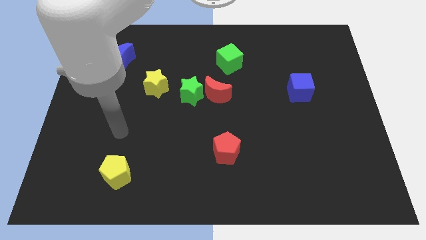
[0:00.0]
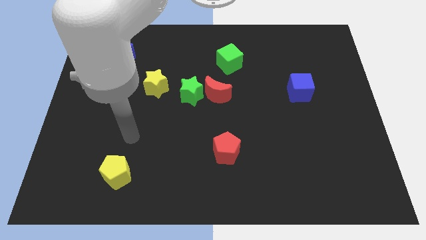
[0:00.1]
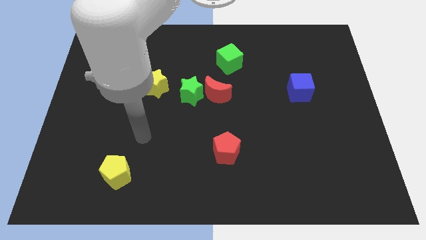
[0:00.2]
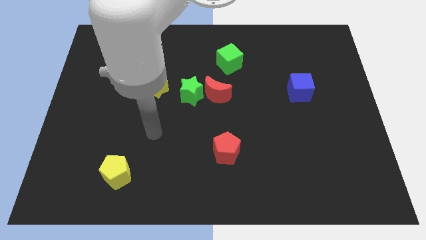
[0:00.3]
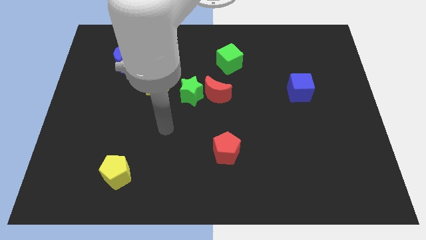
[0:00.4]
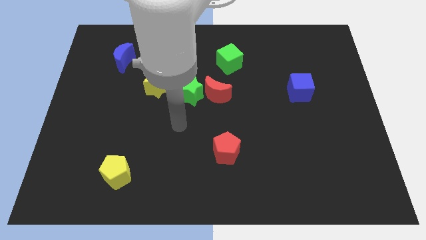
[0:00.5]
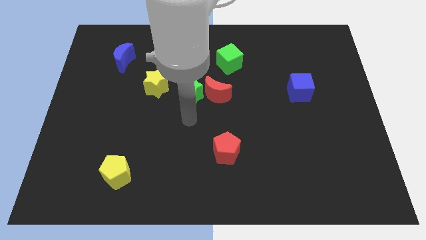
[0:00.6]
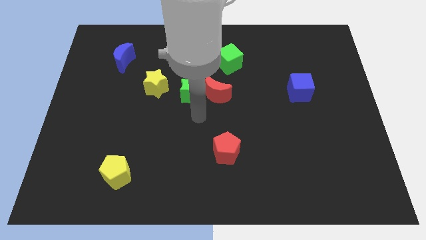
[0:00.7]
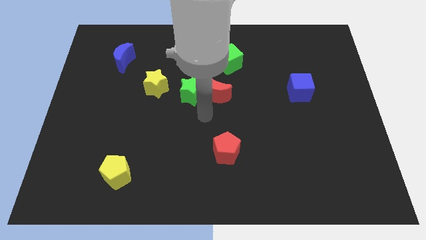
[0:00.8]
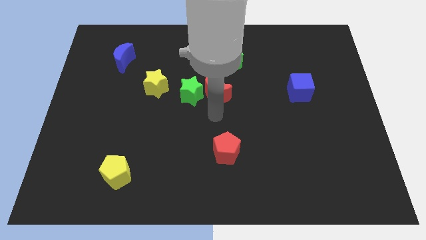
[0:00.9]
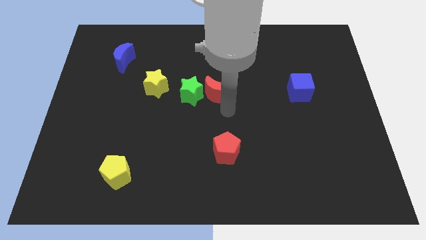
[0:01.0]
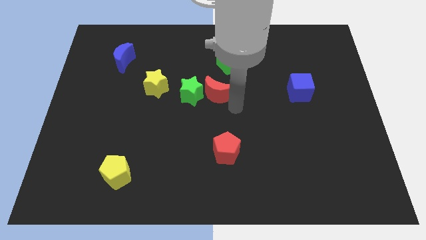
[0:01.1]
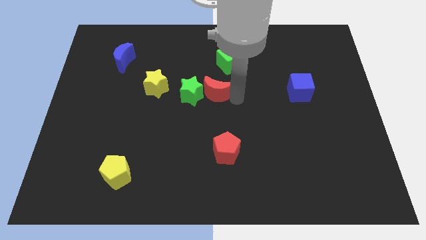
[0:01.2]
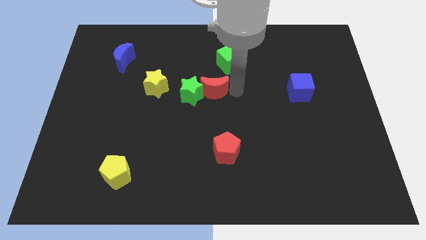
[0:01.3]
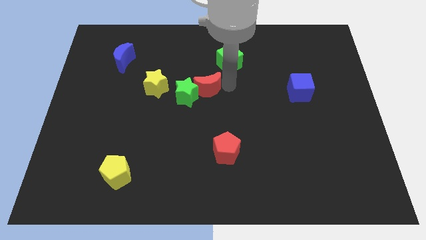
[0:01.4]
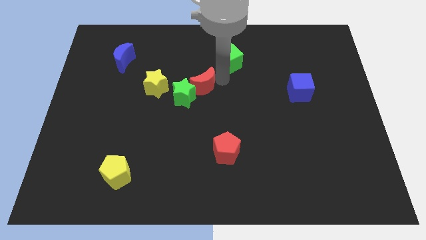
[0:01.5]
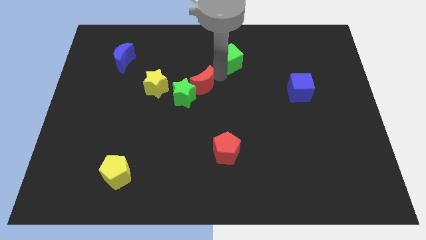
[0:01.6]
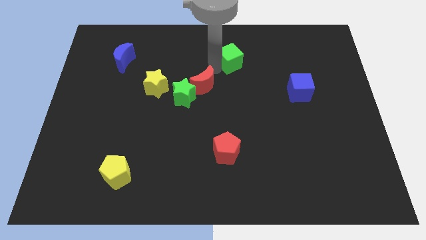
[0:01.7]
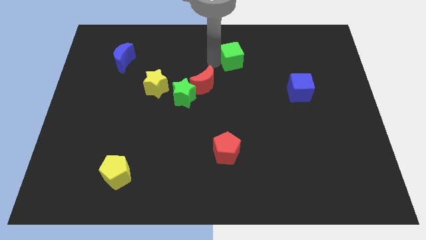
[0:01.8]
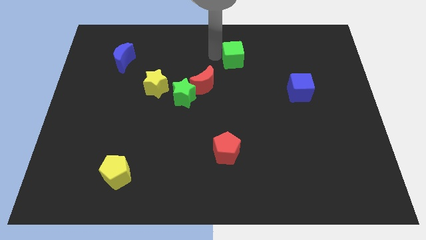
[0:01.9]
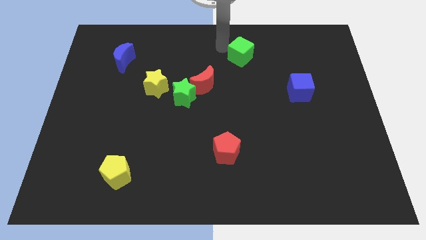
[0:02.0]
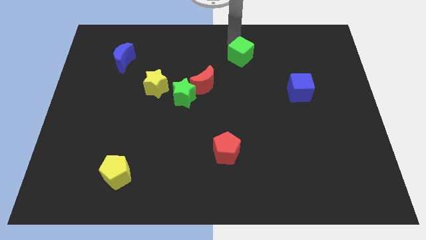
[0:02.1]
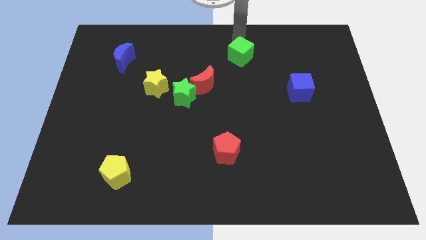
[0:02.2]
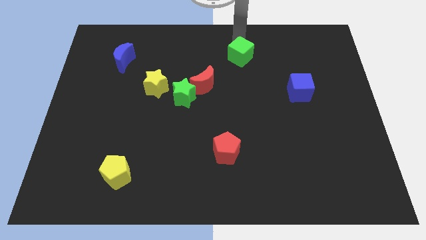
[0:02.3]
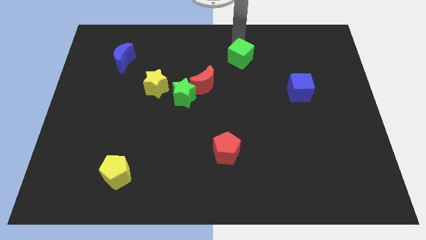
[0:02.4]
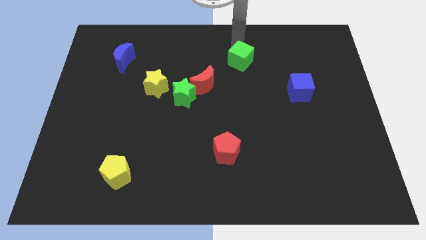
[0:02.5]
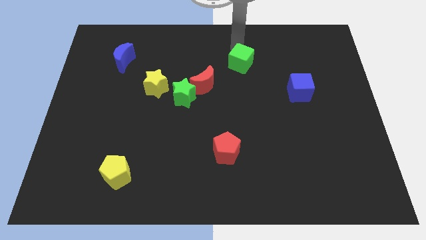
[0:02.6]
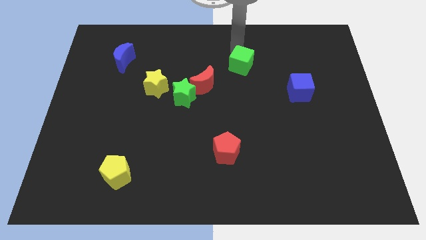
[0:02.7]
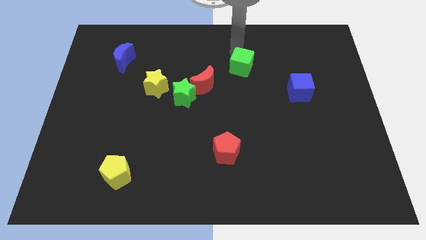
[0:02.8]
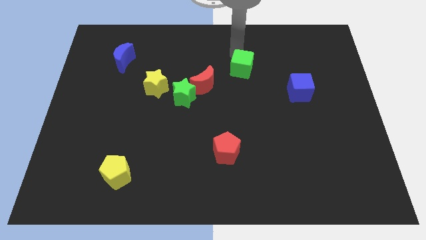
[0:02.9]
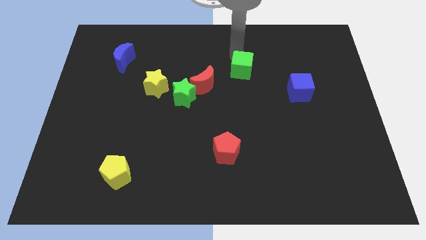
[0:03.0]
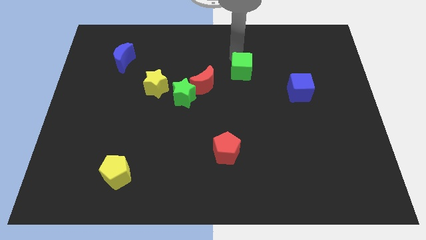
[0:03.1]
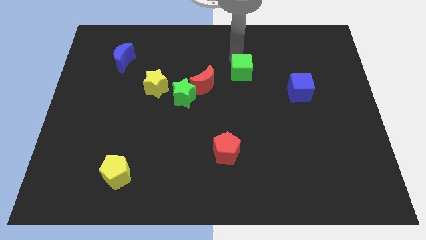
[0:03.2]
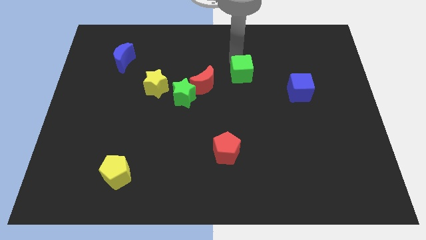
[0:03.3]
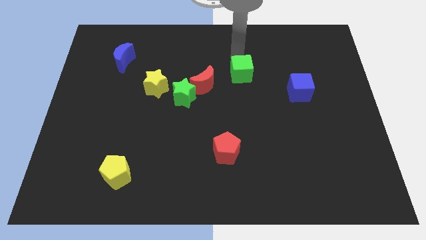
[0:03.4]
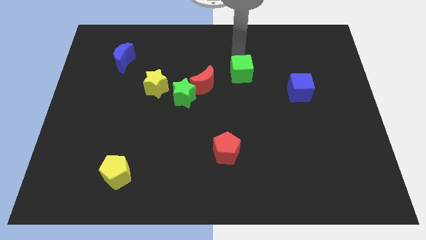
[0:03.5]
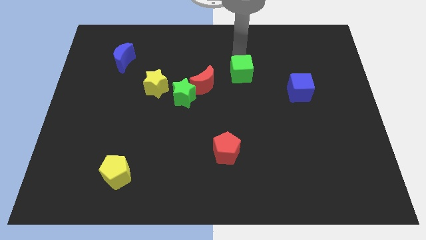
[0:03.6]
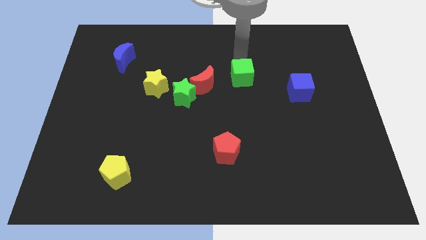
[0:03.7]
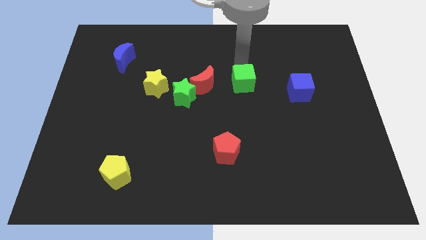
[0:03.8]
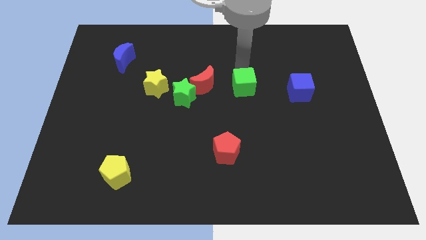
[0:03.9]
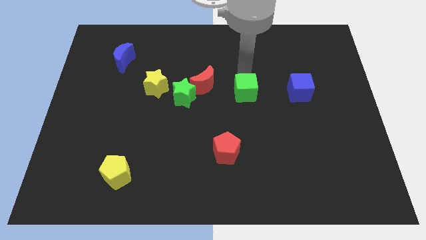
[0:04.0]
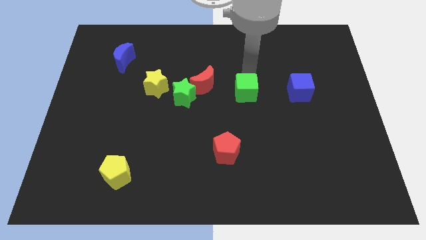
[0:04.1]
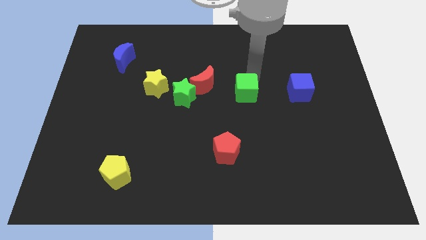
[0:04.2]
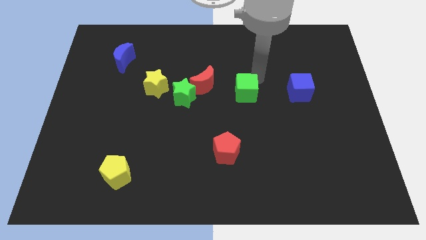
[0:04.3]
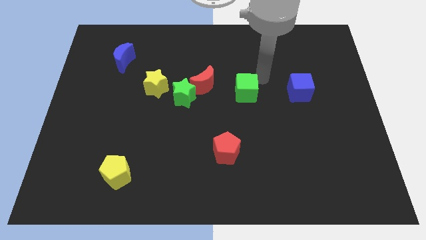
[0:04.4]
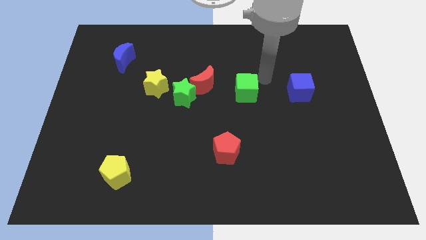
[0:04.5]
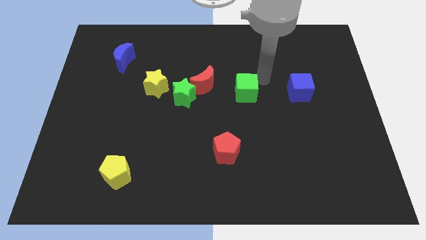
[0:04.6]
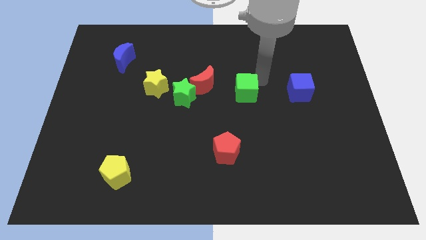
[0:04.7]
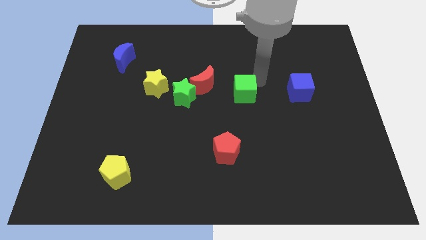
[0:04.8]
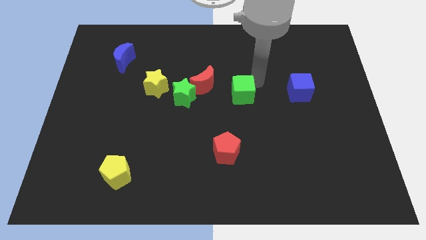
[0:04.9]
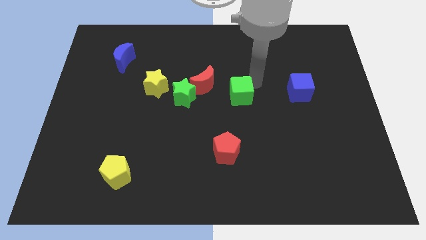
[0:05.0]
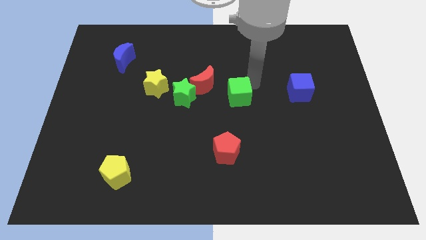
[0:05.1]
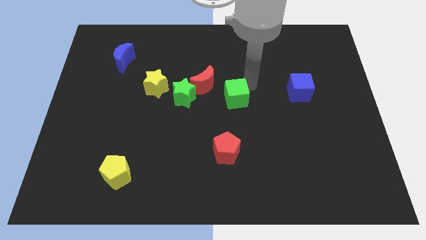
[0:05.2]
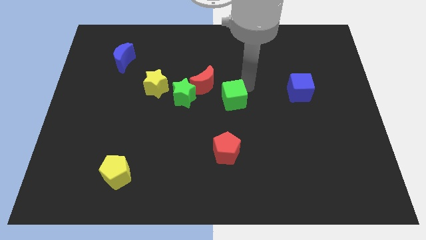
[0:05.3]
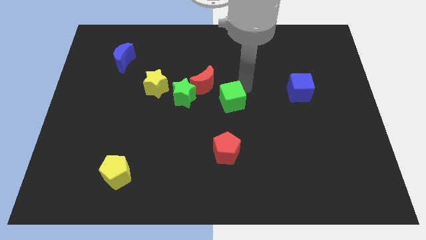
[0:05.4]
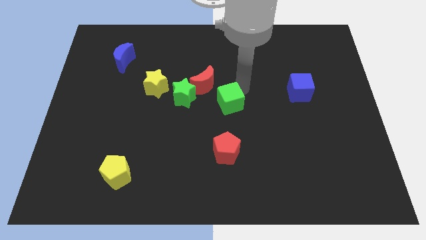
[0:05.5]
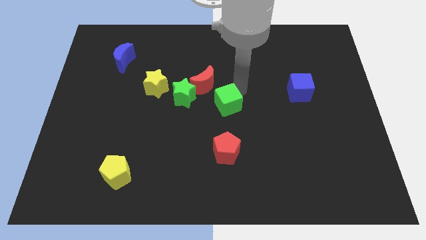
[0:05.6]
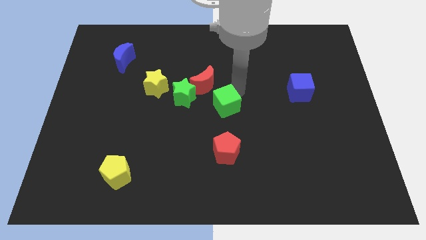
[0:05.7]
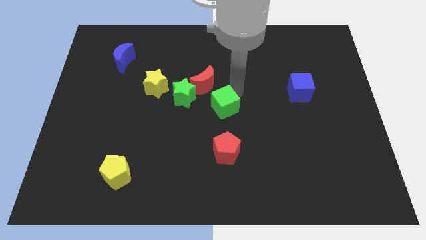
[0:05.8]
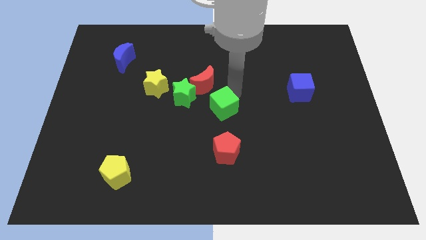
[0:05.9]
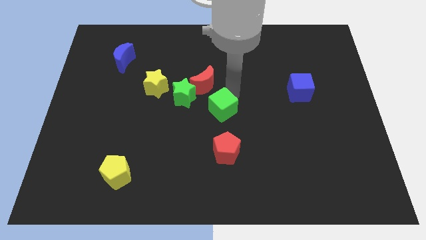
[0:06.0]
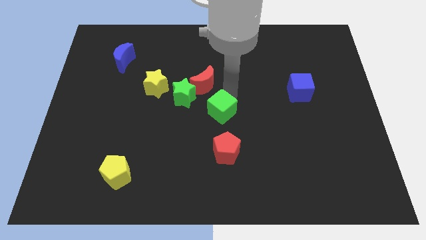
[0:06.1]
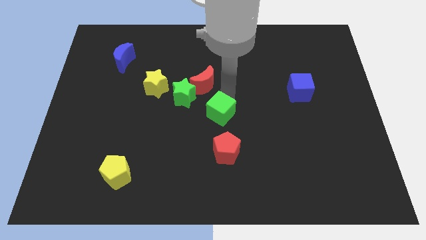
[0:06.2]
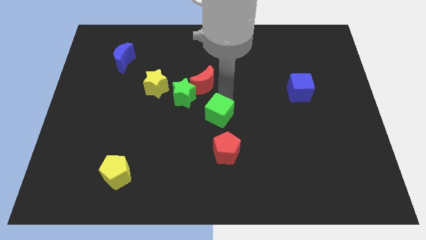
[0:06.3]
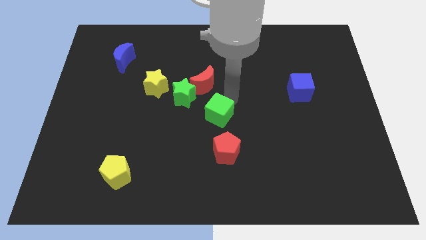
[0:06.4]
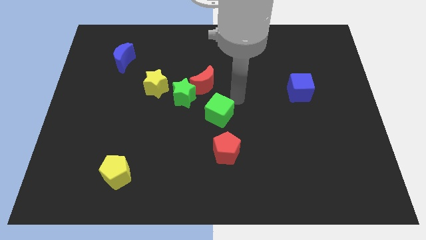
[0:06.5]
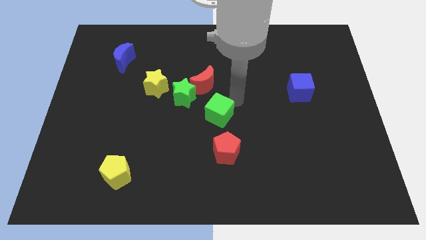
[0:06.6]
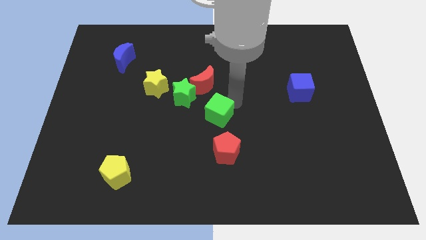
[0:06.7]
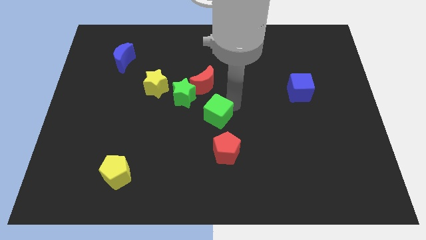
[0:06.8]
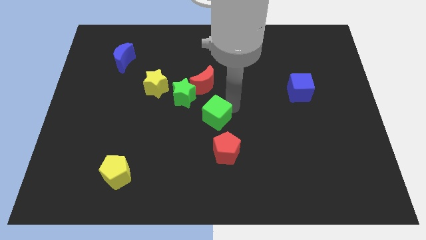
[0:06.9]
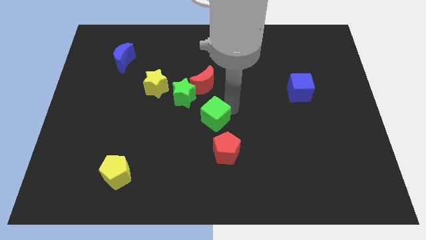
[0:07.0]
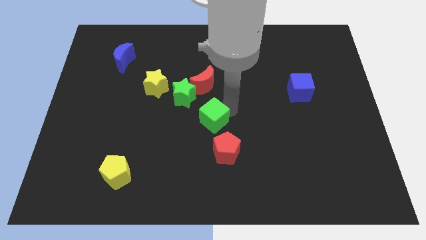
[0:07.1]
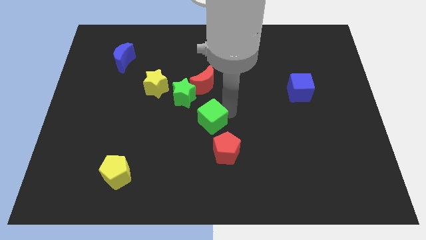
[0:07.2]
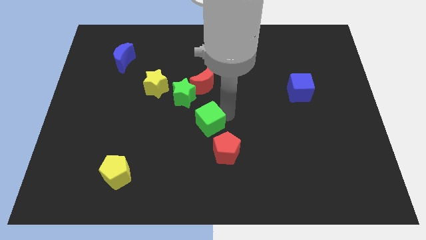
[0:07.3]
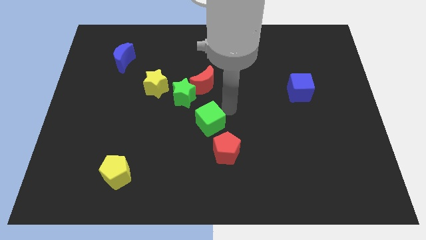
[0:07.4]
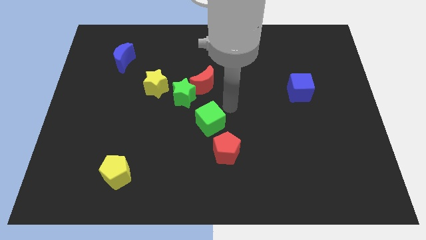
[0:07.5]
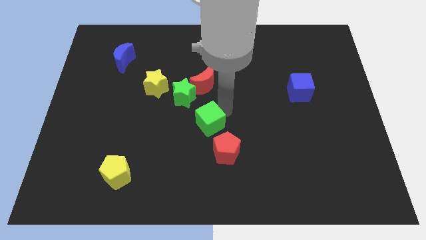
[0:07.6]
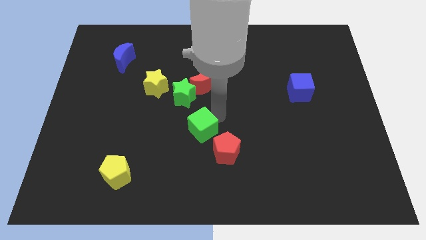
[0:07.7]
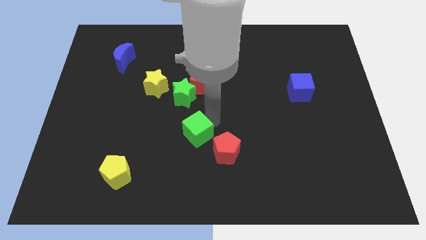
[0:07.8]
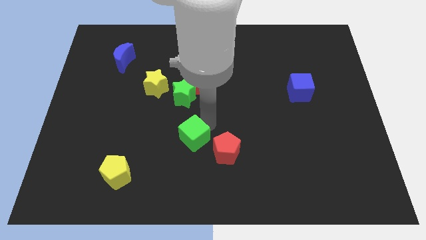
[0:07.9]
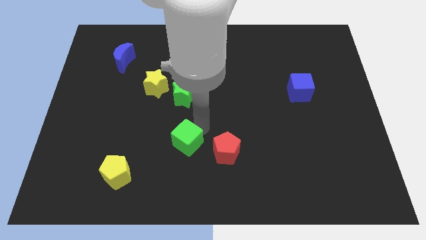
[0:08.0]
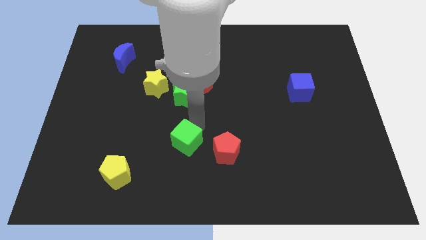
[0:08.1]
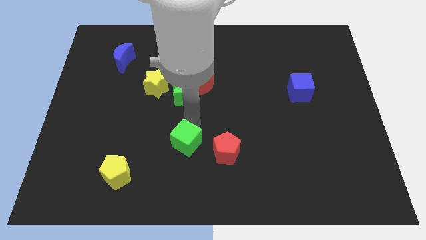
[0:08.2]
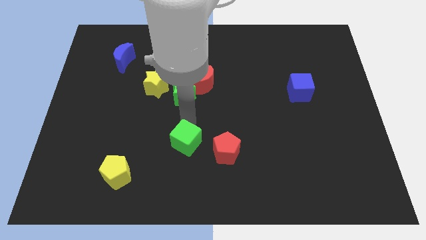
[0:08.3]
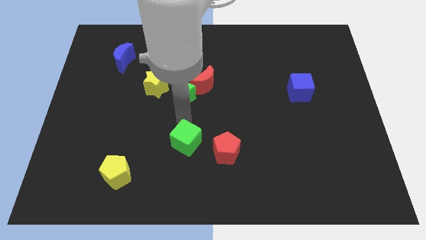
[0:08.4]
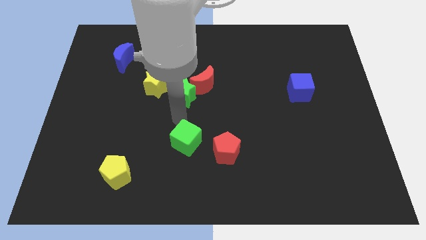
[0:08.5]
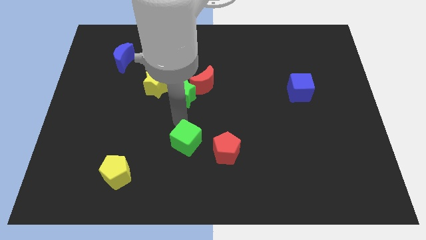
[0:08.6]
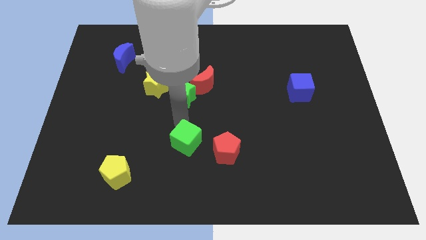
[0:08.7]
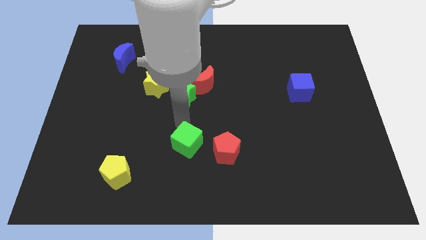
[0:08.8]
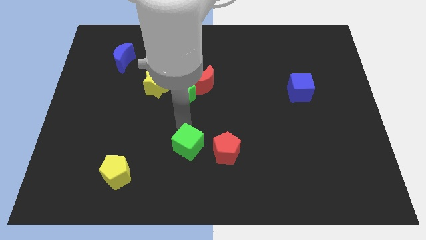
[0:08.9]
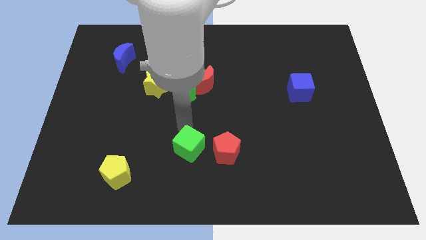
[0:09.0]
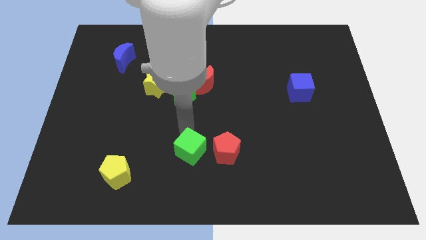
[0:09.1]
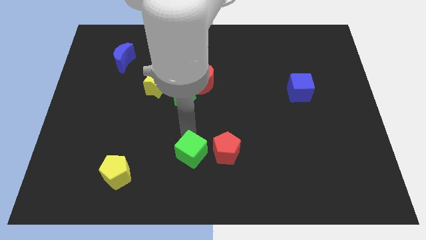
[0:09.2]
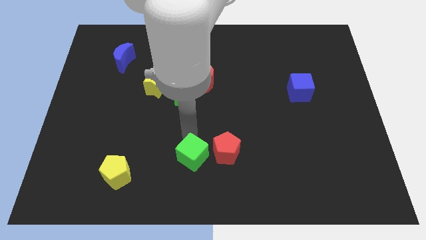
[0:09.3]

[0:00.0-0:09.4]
put the green cube to the bottom left of the red pentagon
